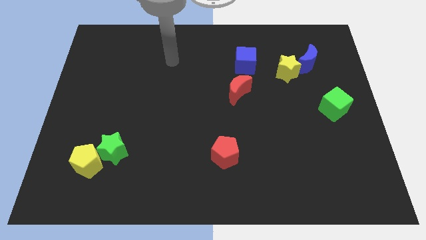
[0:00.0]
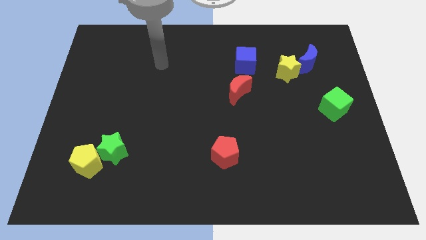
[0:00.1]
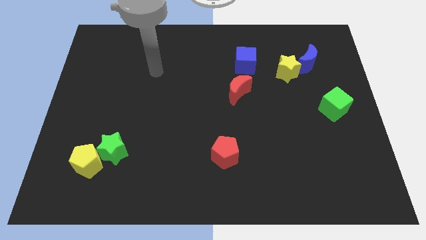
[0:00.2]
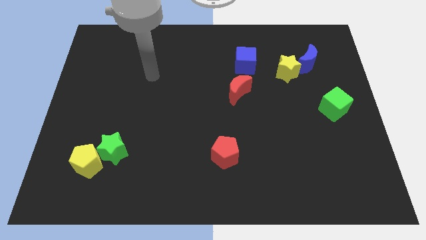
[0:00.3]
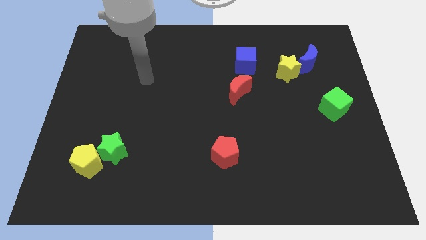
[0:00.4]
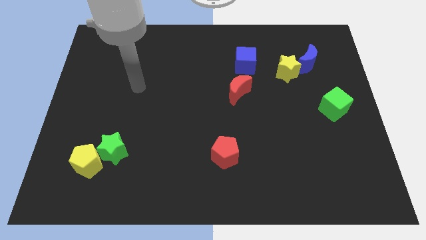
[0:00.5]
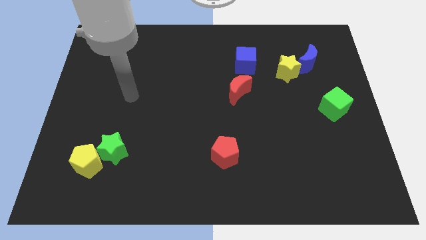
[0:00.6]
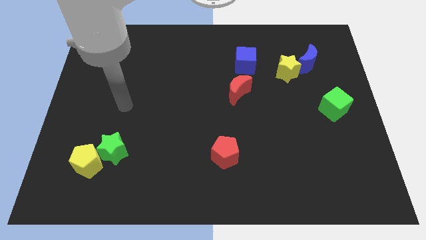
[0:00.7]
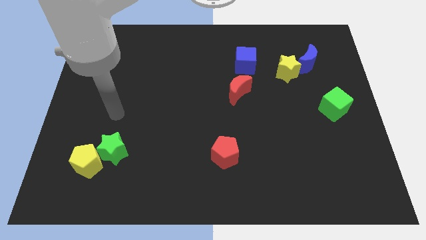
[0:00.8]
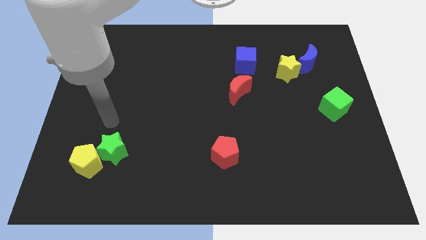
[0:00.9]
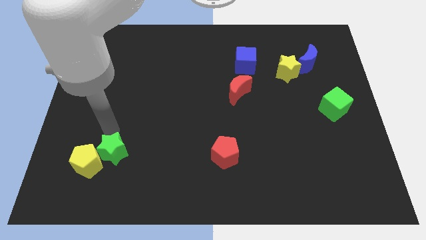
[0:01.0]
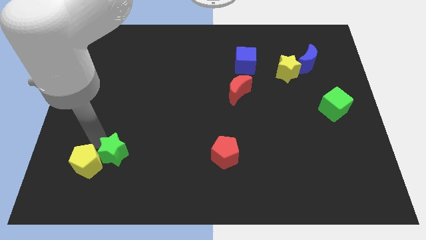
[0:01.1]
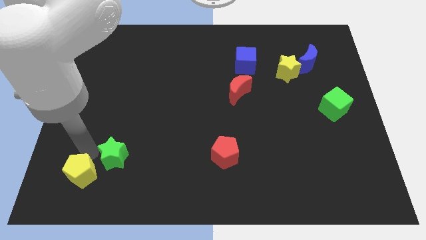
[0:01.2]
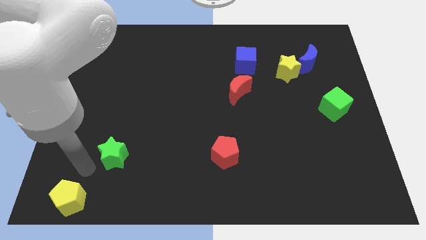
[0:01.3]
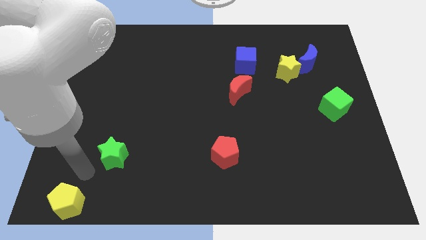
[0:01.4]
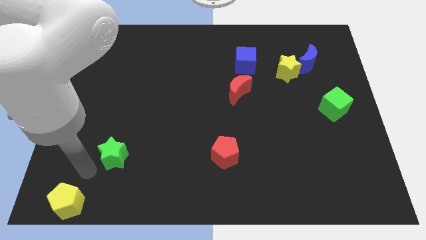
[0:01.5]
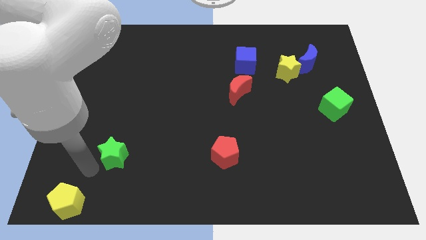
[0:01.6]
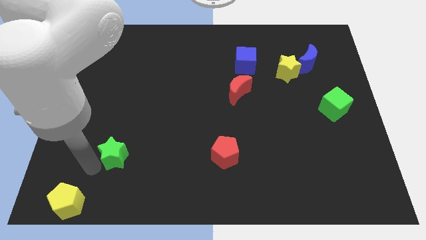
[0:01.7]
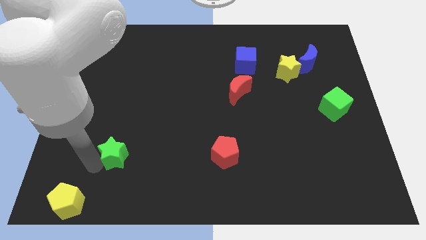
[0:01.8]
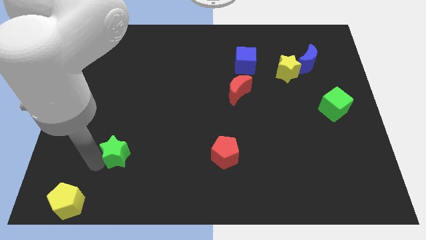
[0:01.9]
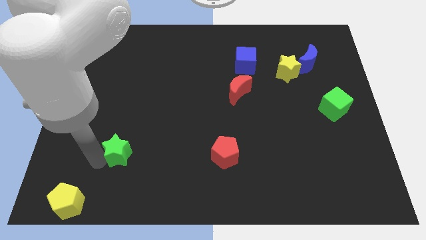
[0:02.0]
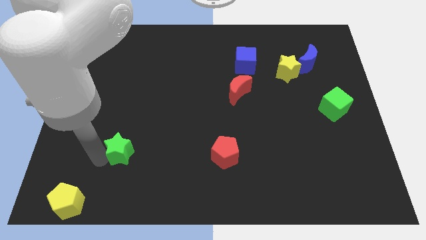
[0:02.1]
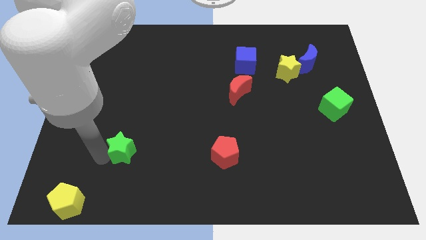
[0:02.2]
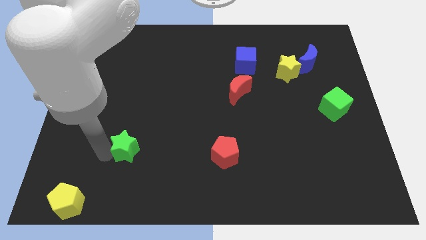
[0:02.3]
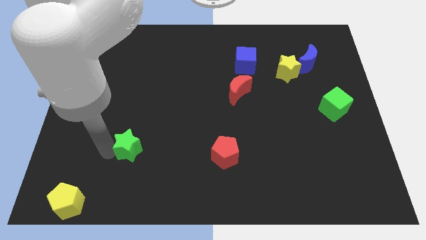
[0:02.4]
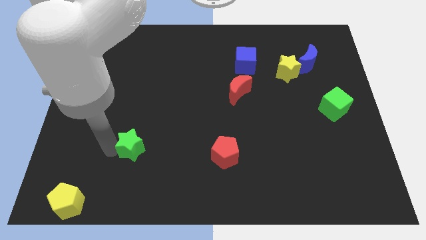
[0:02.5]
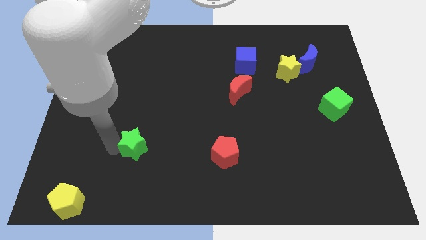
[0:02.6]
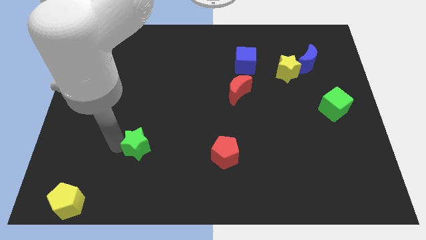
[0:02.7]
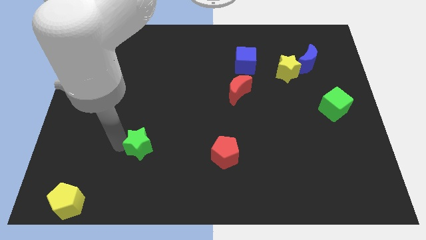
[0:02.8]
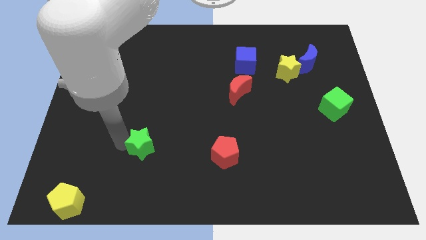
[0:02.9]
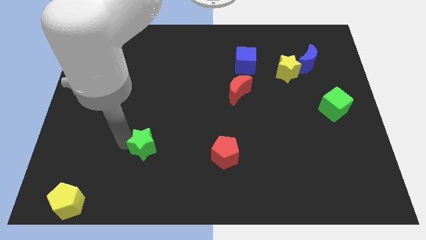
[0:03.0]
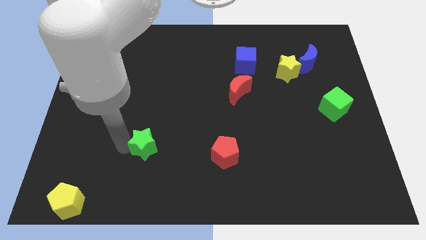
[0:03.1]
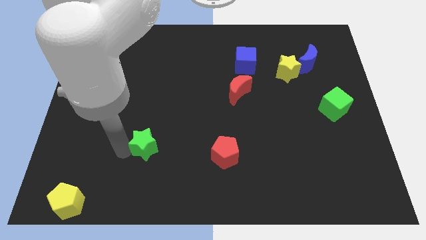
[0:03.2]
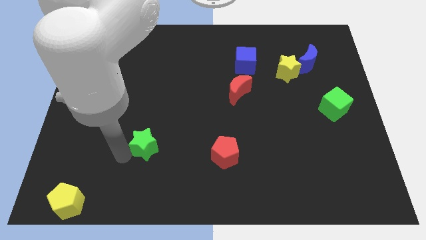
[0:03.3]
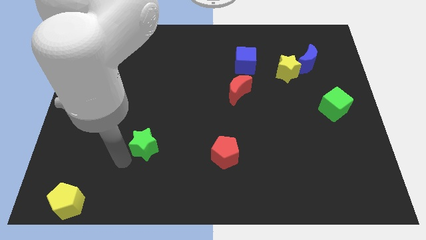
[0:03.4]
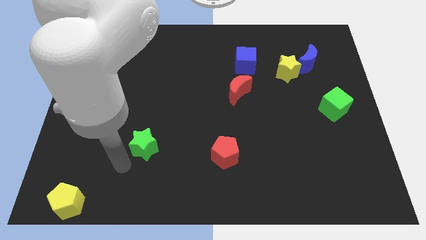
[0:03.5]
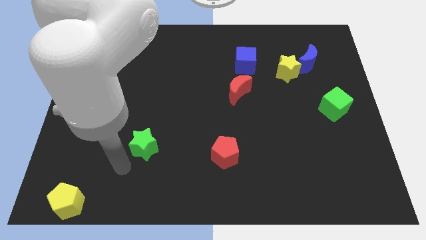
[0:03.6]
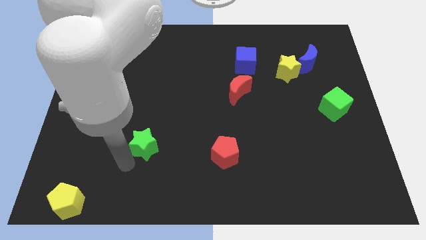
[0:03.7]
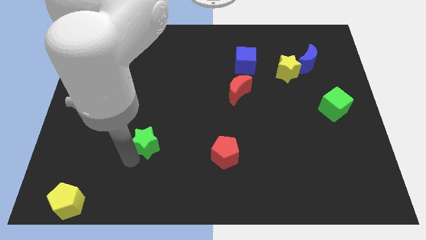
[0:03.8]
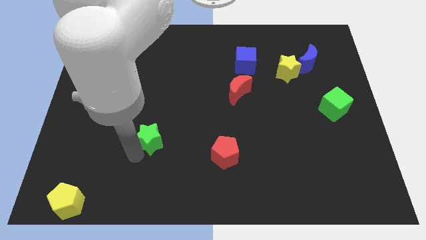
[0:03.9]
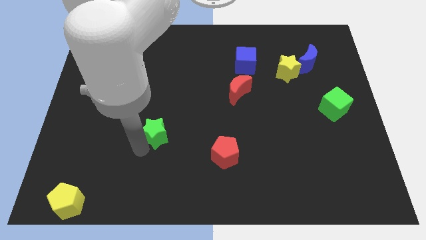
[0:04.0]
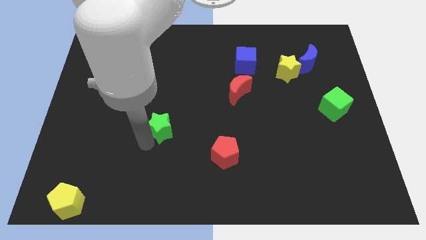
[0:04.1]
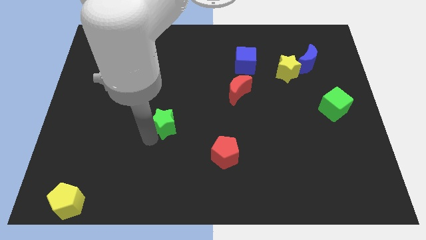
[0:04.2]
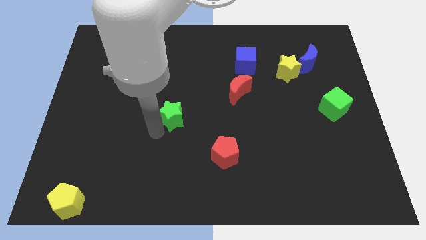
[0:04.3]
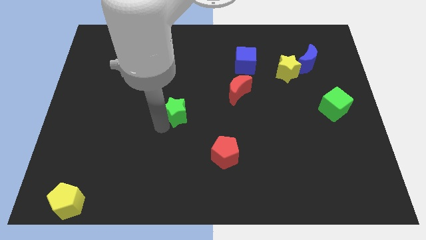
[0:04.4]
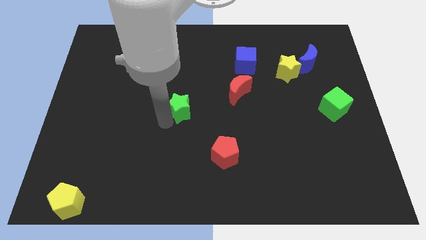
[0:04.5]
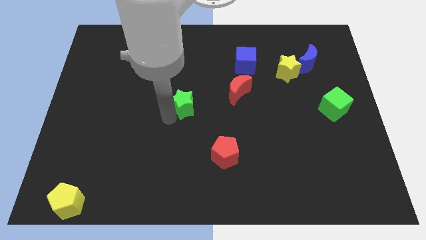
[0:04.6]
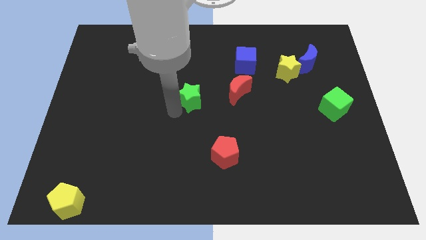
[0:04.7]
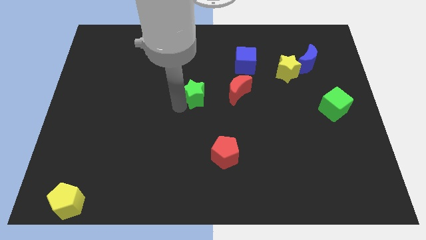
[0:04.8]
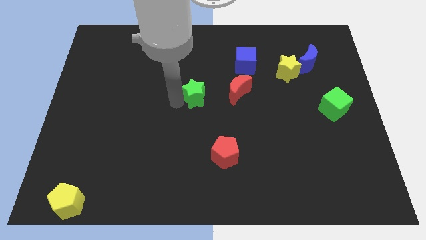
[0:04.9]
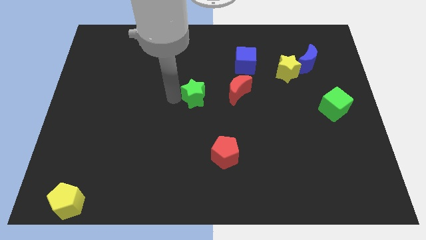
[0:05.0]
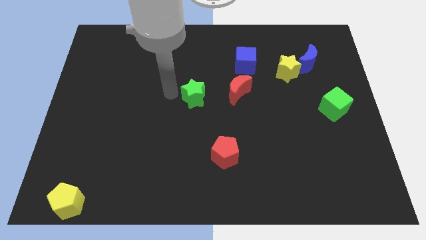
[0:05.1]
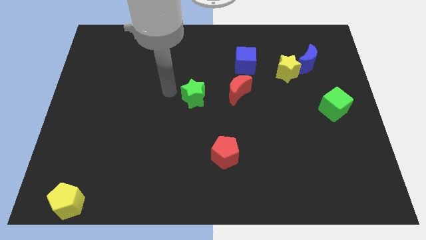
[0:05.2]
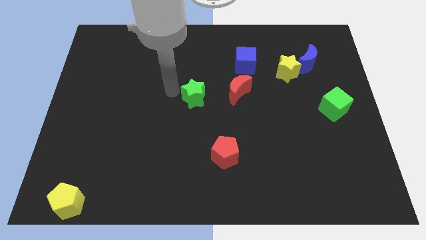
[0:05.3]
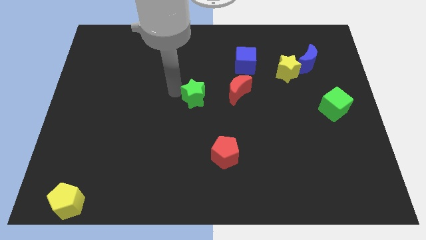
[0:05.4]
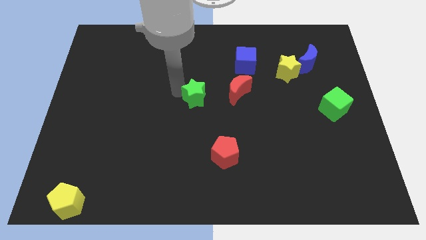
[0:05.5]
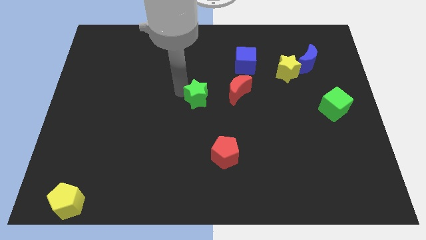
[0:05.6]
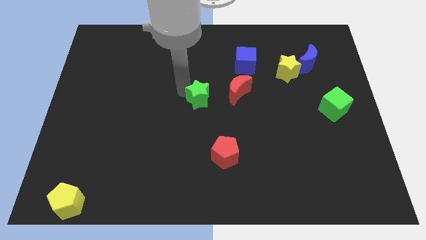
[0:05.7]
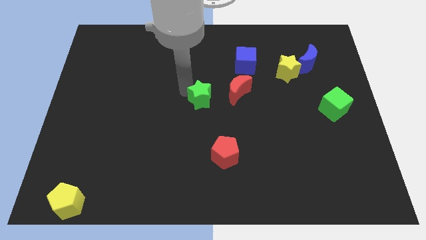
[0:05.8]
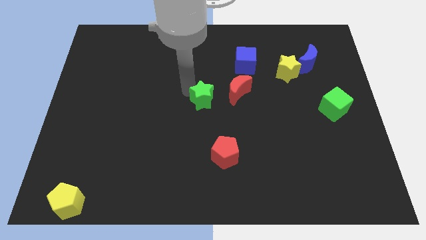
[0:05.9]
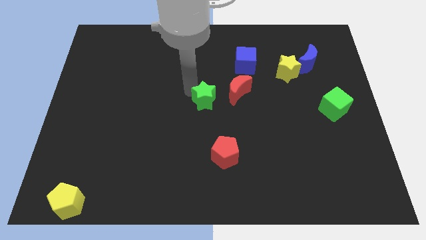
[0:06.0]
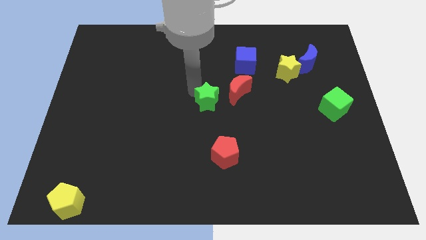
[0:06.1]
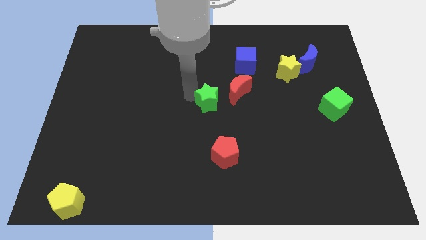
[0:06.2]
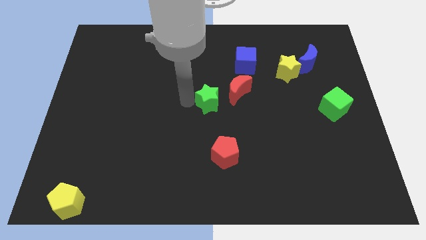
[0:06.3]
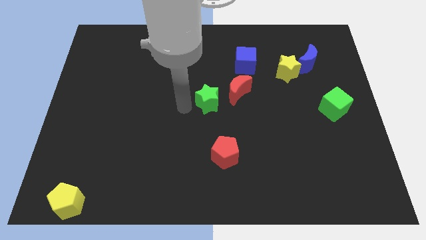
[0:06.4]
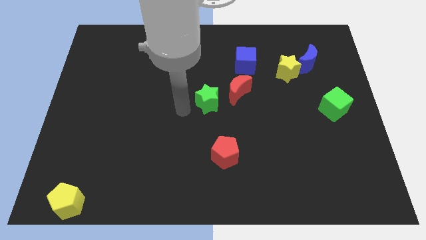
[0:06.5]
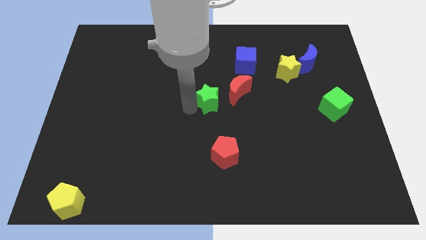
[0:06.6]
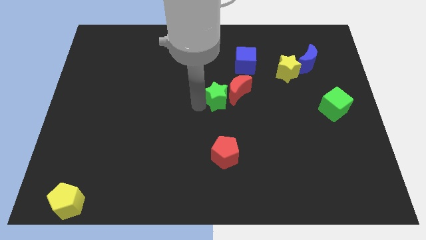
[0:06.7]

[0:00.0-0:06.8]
move the green star close to the red moon

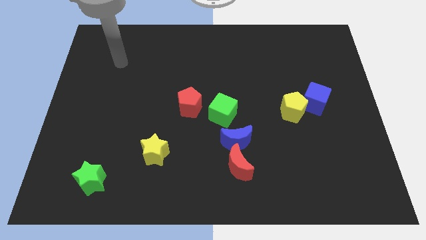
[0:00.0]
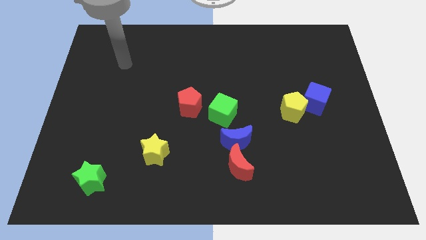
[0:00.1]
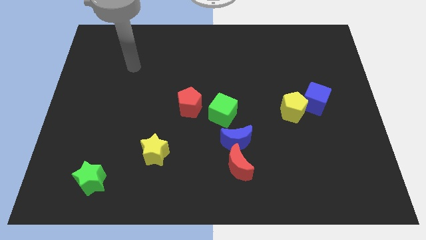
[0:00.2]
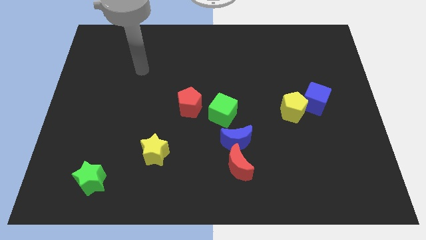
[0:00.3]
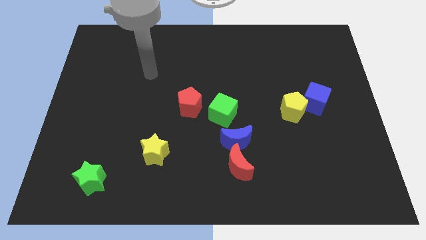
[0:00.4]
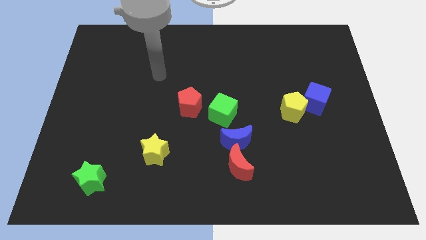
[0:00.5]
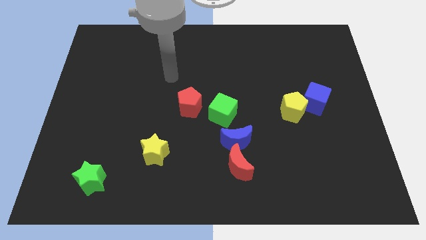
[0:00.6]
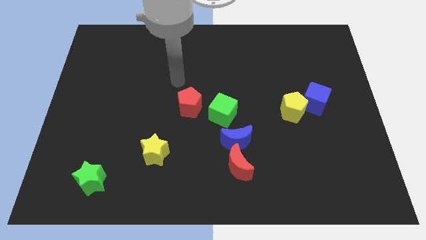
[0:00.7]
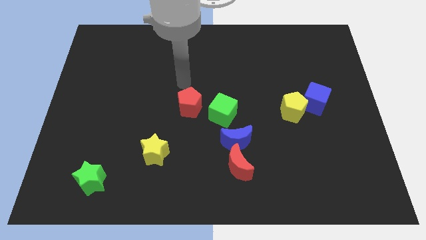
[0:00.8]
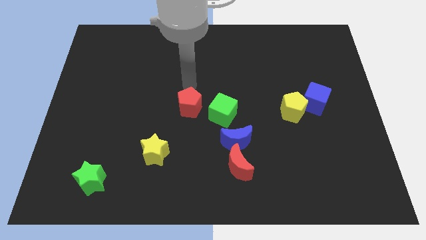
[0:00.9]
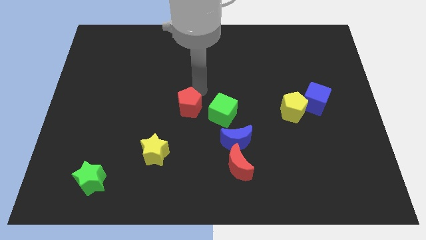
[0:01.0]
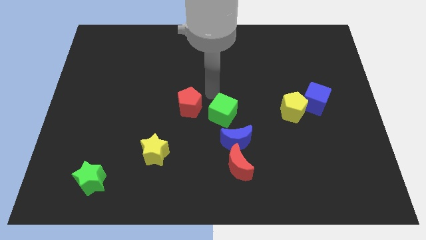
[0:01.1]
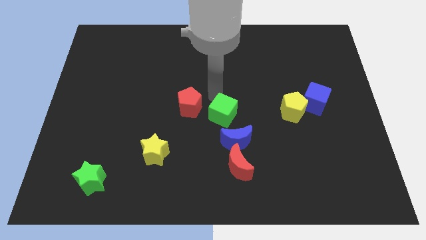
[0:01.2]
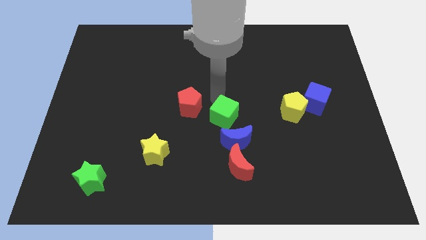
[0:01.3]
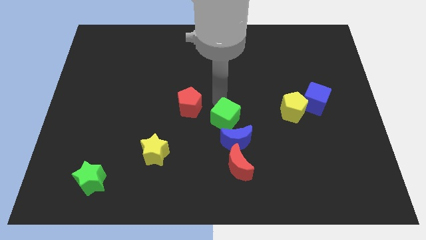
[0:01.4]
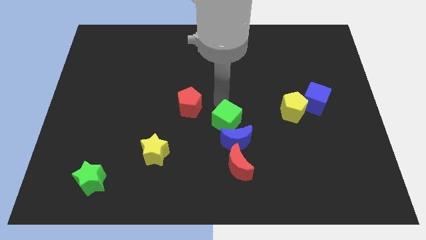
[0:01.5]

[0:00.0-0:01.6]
push the green cube to the blue moon
